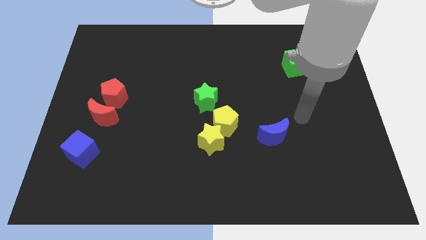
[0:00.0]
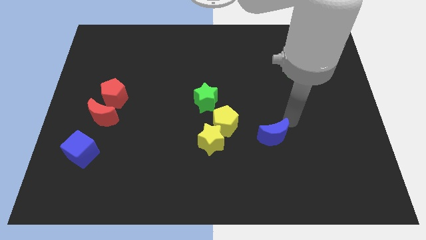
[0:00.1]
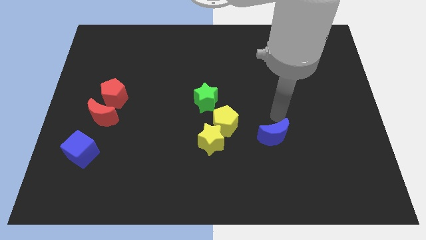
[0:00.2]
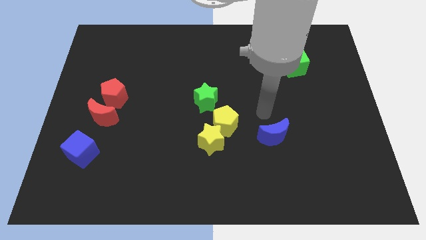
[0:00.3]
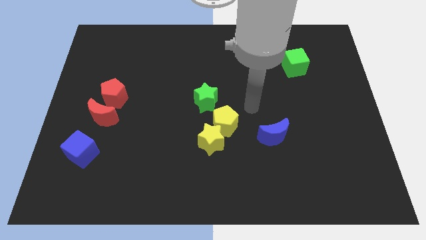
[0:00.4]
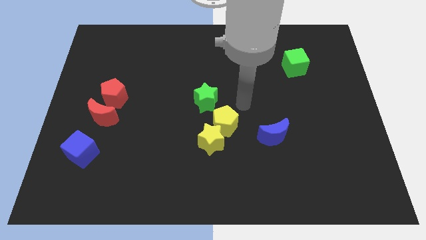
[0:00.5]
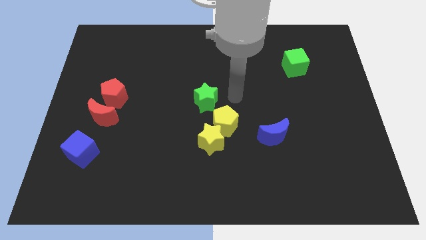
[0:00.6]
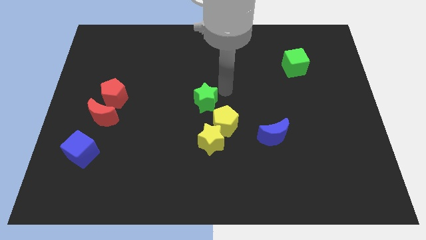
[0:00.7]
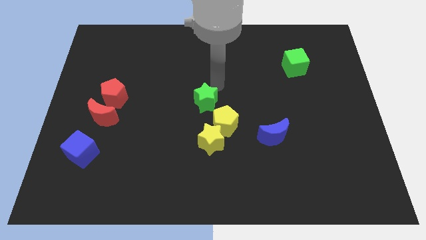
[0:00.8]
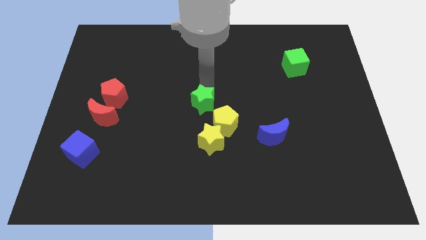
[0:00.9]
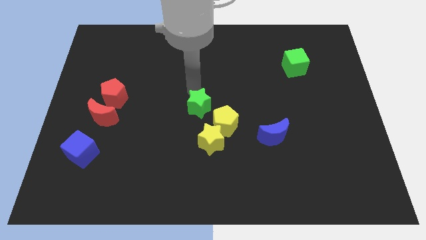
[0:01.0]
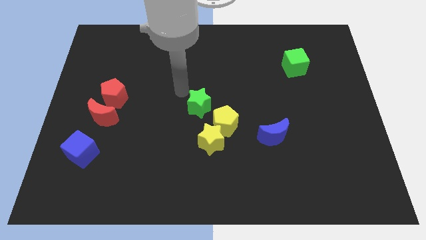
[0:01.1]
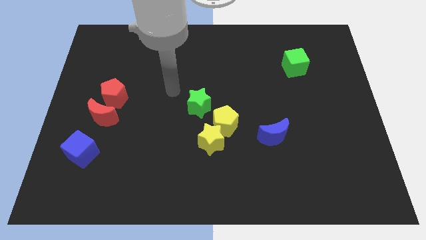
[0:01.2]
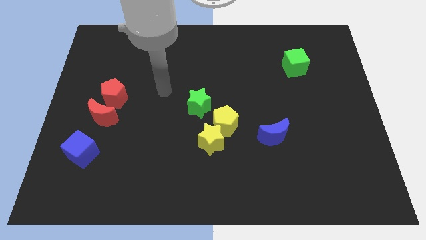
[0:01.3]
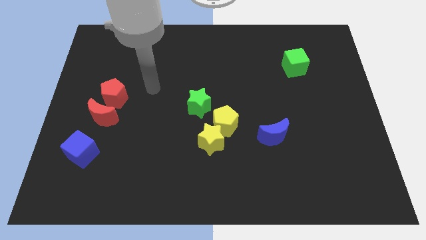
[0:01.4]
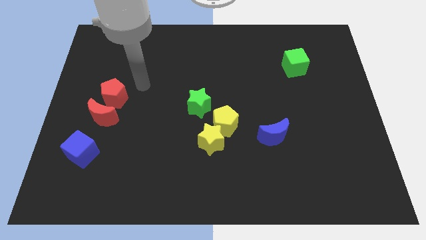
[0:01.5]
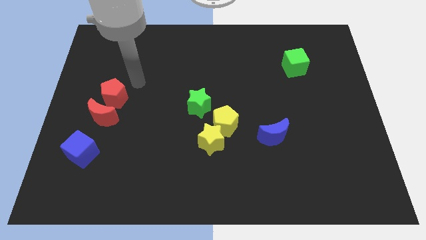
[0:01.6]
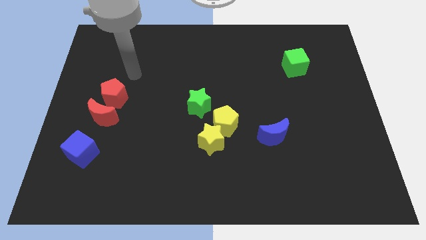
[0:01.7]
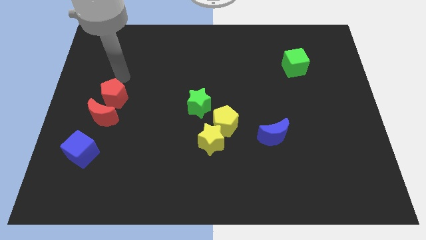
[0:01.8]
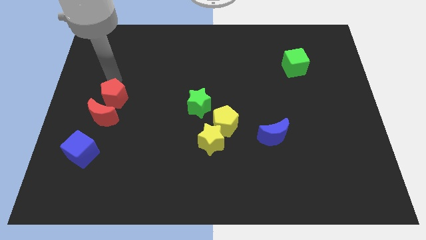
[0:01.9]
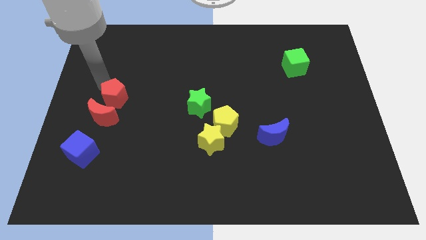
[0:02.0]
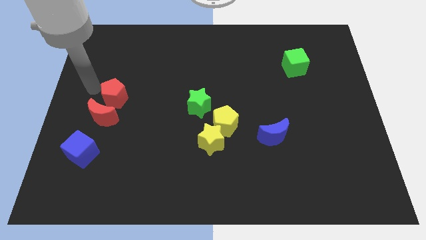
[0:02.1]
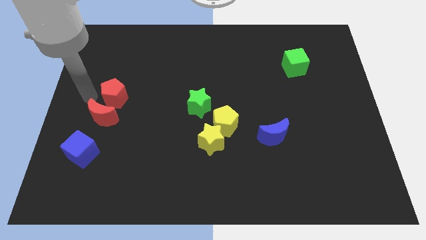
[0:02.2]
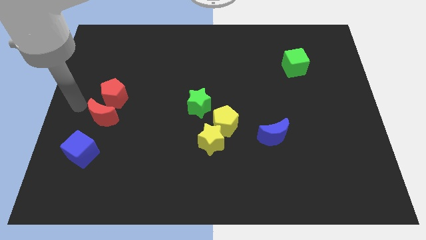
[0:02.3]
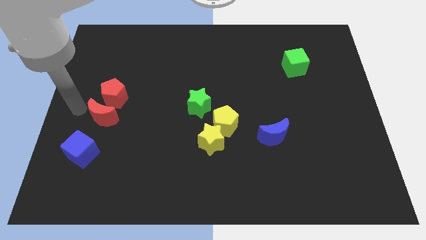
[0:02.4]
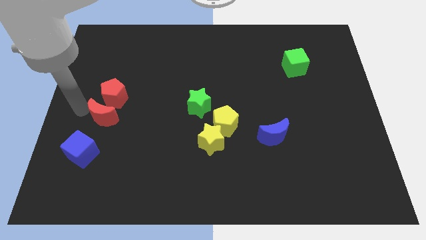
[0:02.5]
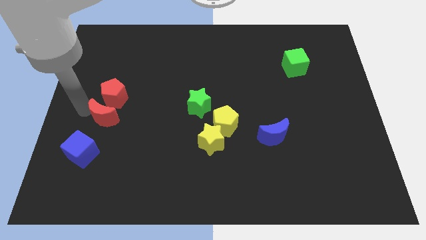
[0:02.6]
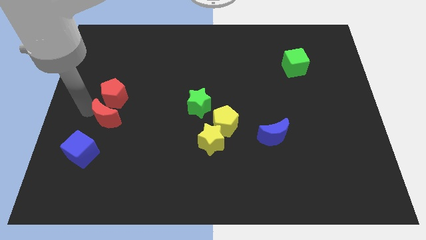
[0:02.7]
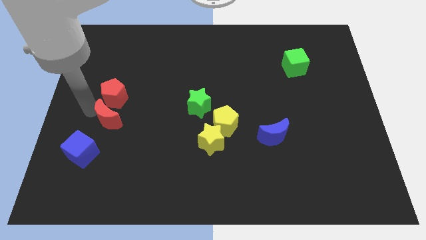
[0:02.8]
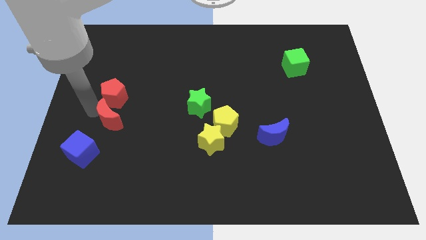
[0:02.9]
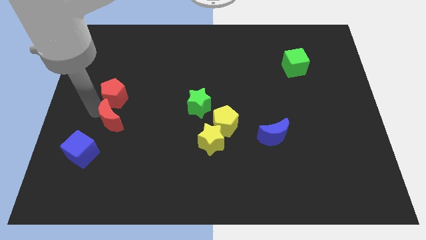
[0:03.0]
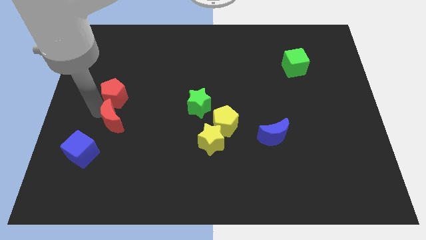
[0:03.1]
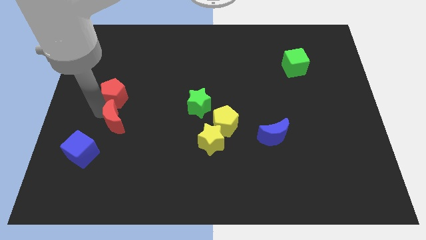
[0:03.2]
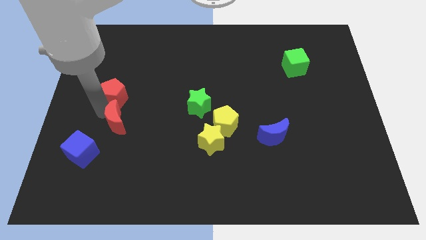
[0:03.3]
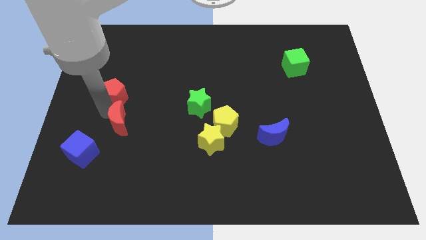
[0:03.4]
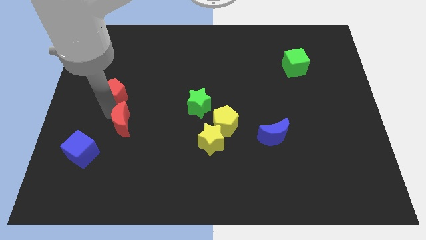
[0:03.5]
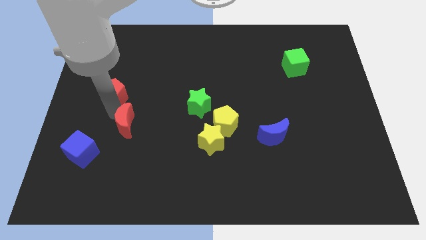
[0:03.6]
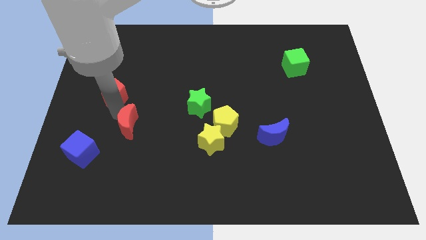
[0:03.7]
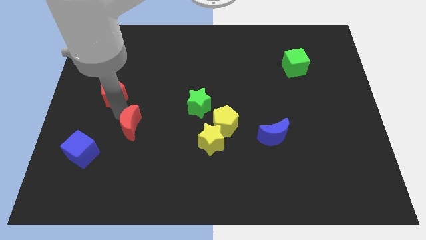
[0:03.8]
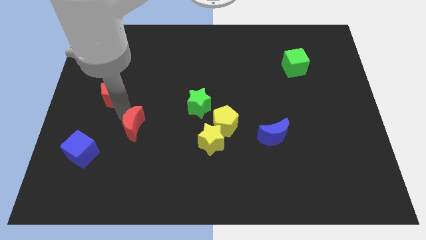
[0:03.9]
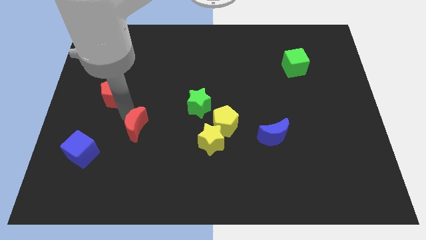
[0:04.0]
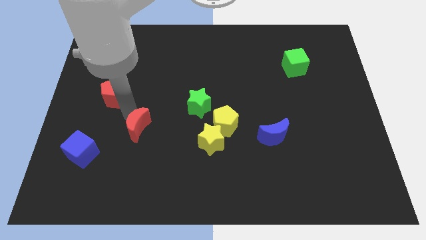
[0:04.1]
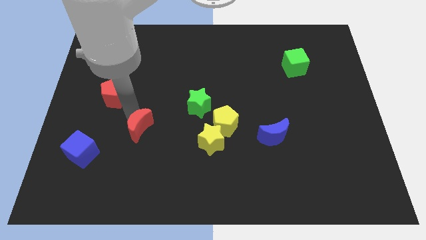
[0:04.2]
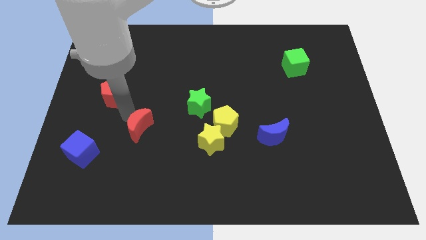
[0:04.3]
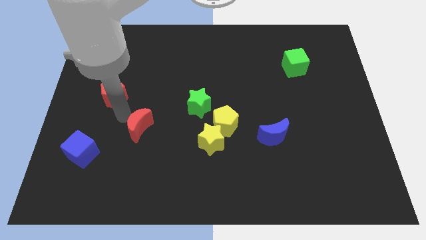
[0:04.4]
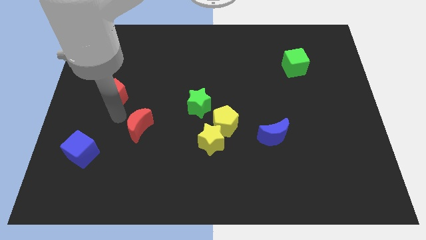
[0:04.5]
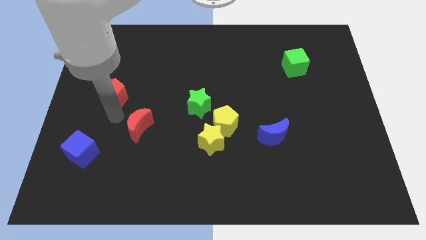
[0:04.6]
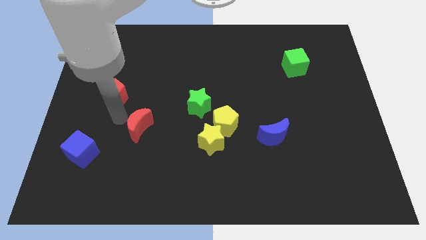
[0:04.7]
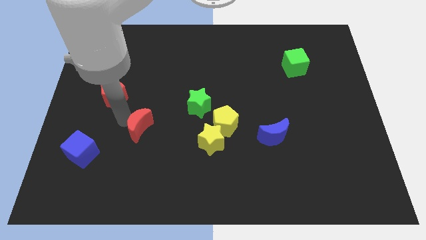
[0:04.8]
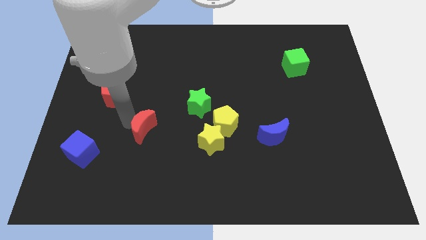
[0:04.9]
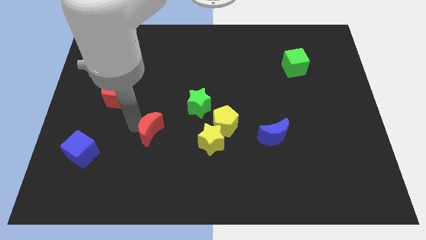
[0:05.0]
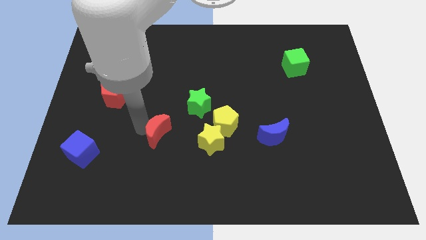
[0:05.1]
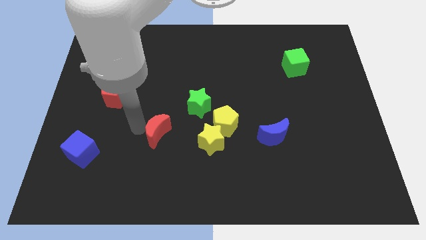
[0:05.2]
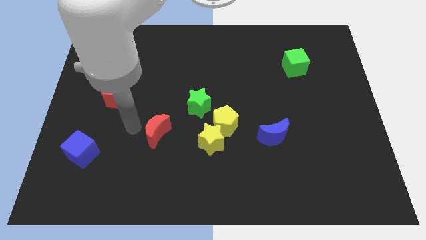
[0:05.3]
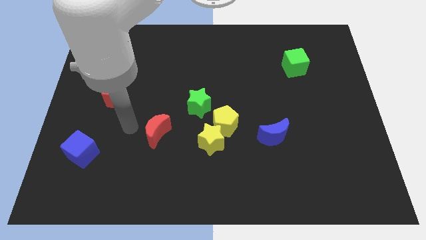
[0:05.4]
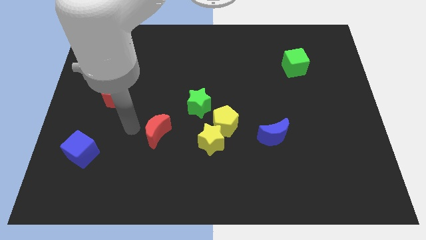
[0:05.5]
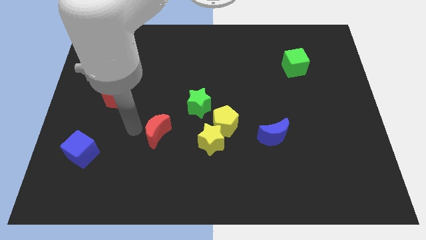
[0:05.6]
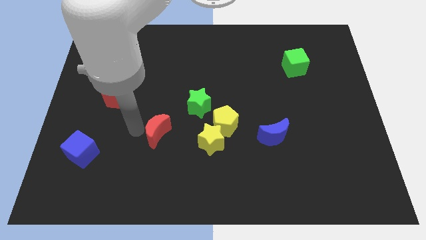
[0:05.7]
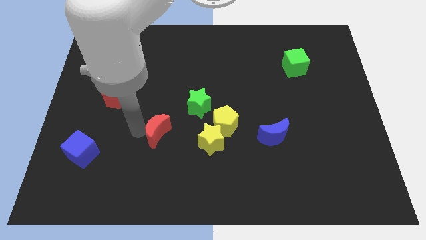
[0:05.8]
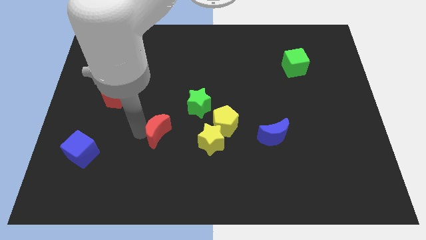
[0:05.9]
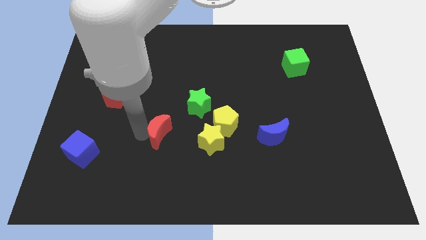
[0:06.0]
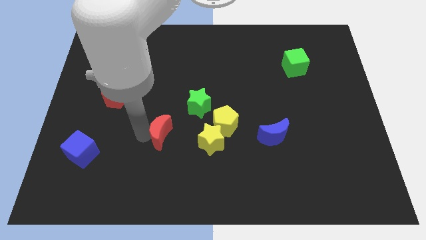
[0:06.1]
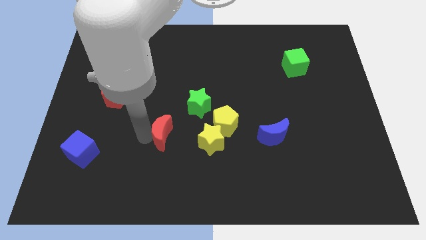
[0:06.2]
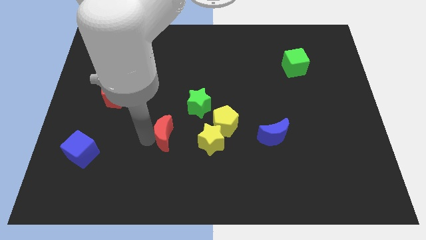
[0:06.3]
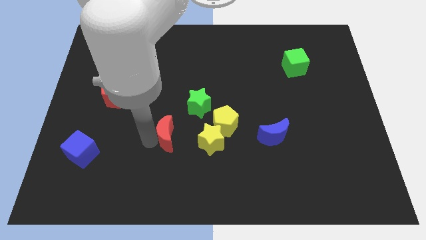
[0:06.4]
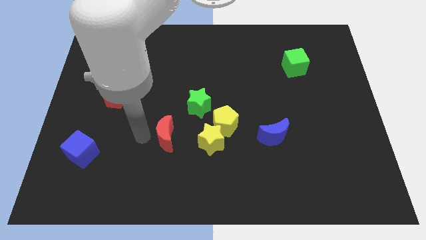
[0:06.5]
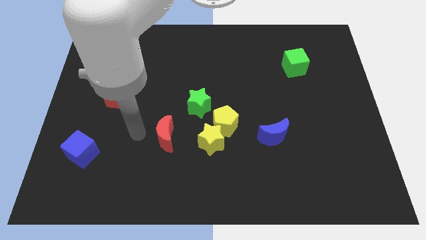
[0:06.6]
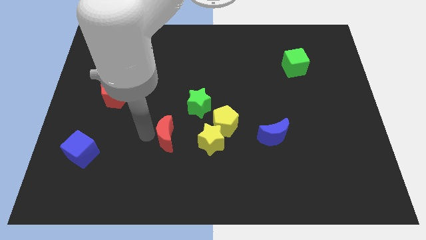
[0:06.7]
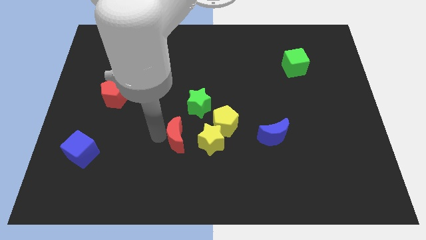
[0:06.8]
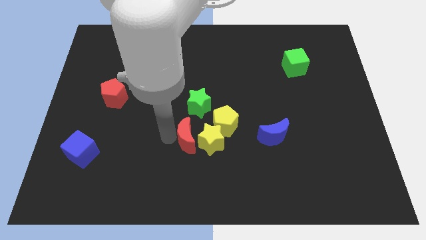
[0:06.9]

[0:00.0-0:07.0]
push the red moon towards the yellow star
